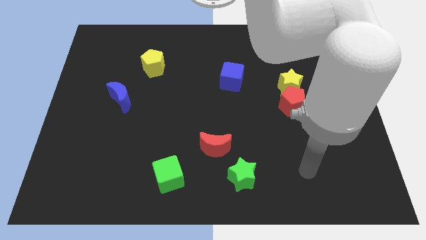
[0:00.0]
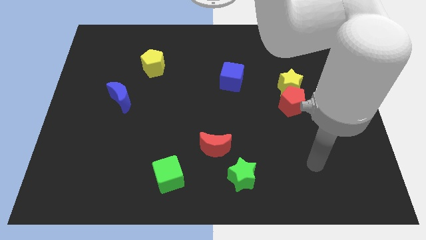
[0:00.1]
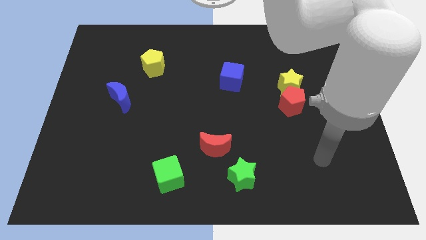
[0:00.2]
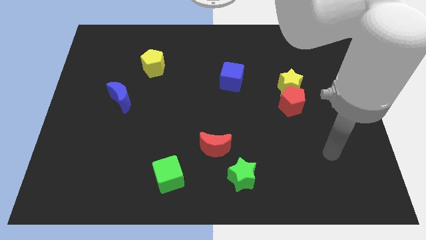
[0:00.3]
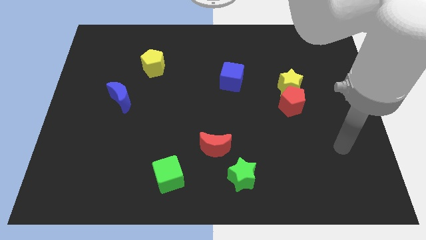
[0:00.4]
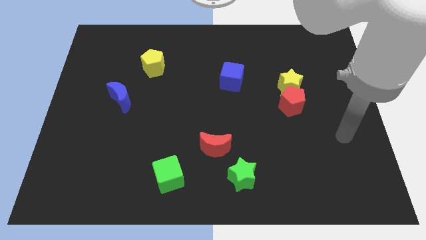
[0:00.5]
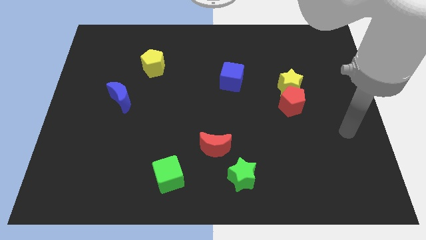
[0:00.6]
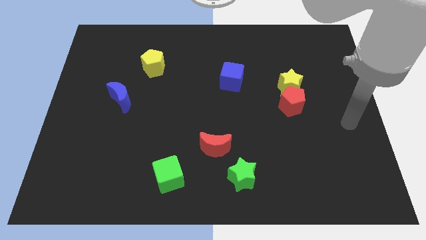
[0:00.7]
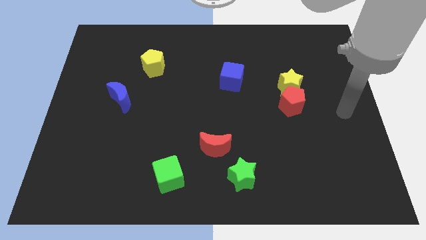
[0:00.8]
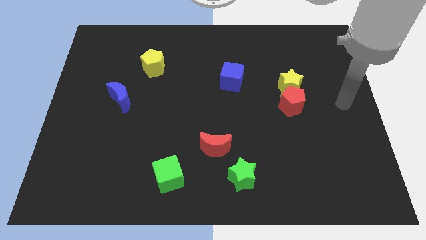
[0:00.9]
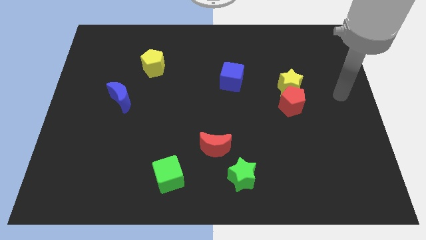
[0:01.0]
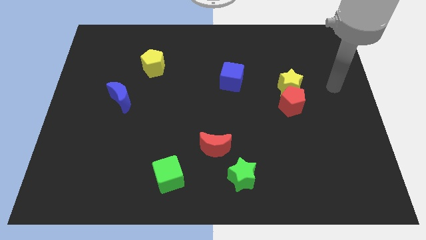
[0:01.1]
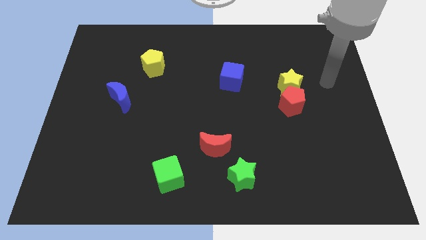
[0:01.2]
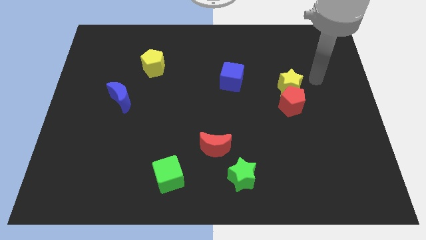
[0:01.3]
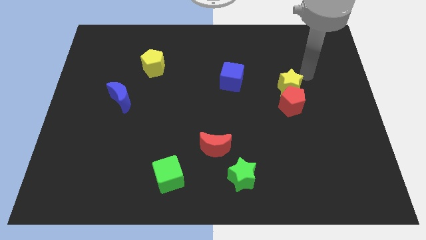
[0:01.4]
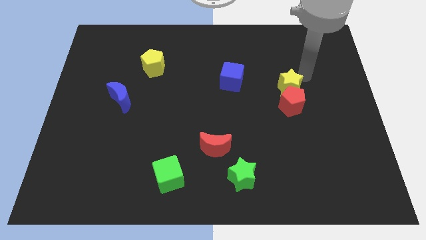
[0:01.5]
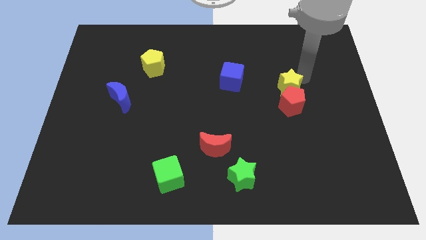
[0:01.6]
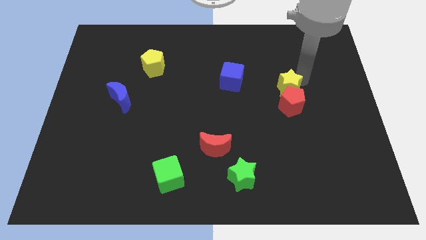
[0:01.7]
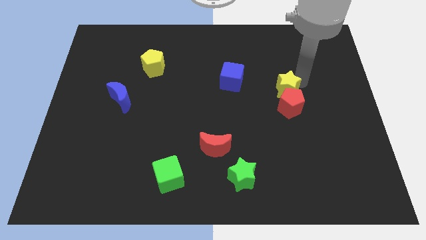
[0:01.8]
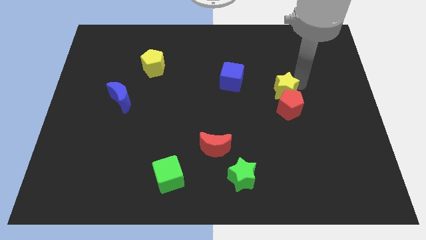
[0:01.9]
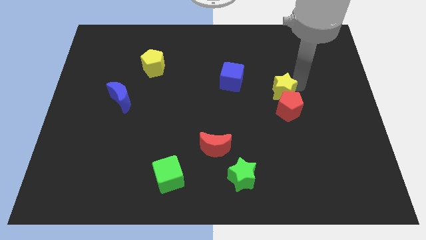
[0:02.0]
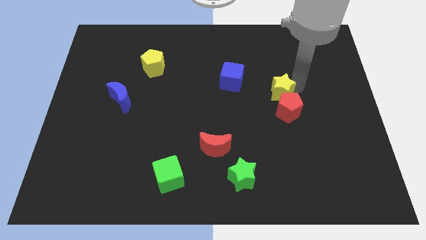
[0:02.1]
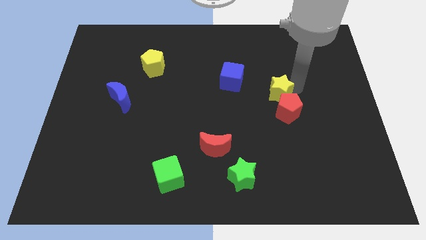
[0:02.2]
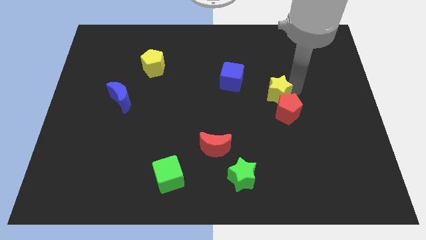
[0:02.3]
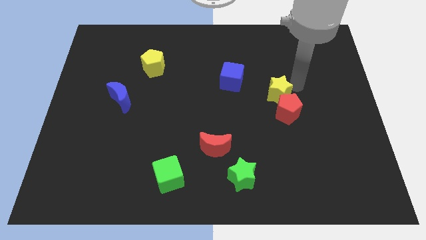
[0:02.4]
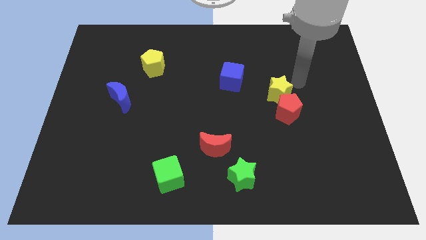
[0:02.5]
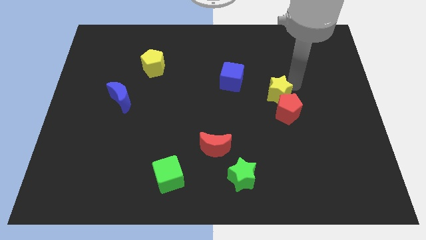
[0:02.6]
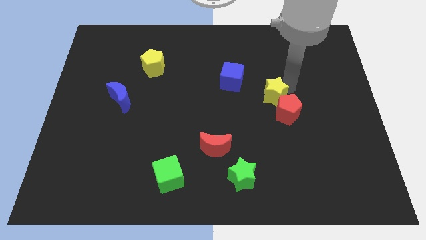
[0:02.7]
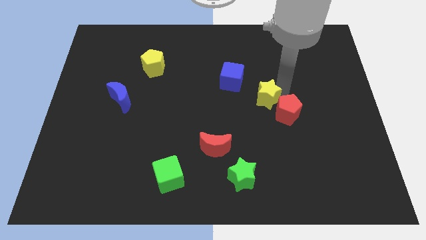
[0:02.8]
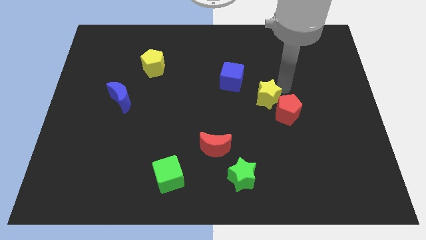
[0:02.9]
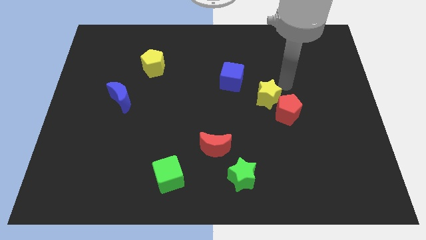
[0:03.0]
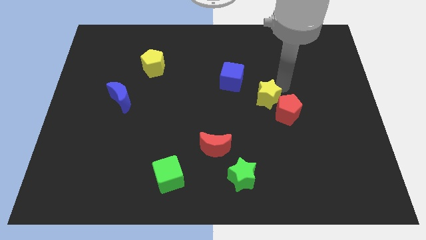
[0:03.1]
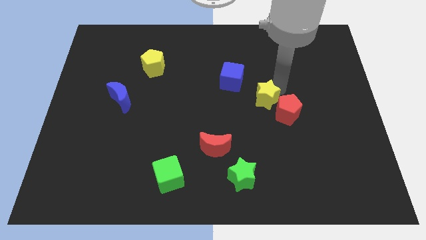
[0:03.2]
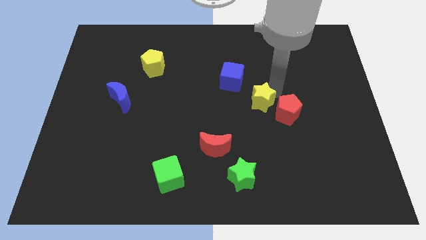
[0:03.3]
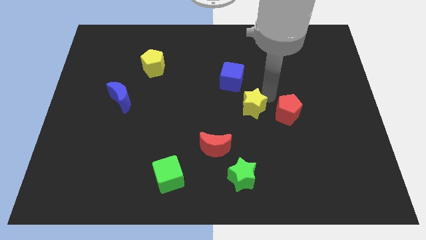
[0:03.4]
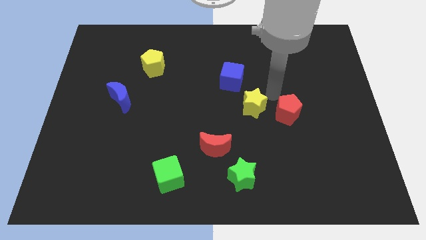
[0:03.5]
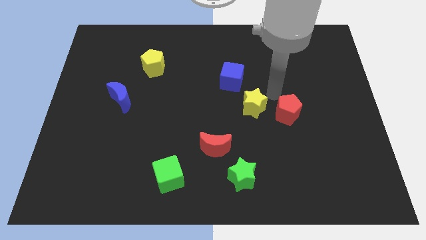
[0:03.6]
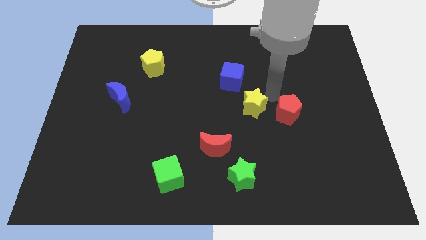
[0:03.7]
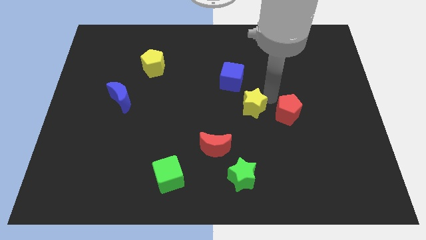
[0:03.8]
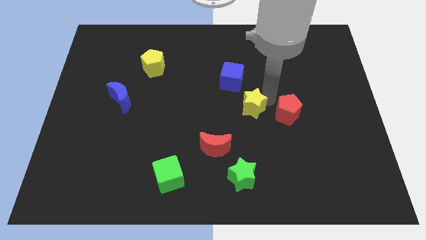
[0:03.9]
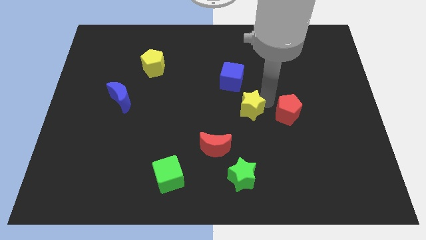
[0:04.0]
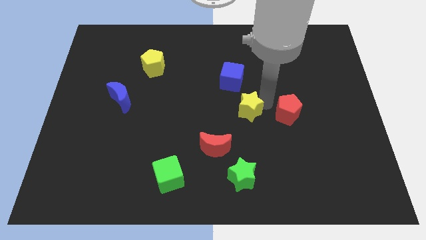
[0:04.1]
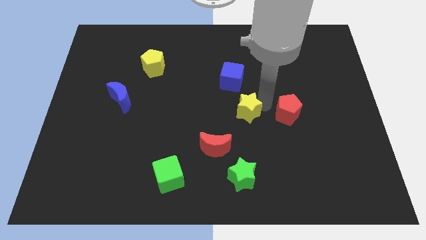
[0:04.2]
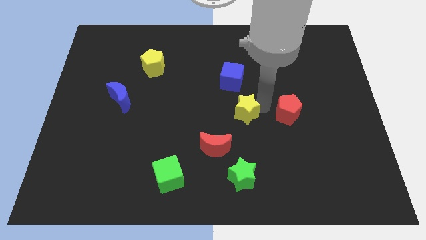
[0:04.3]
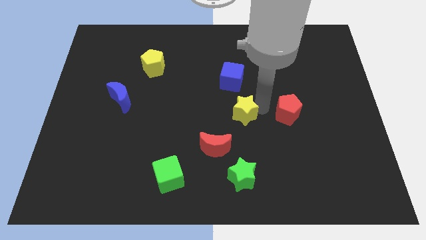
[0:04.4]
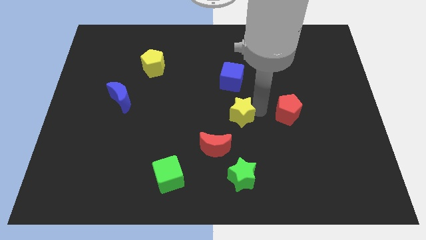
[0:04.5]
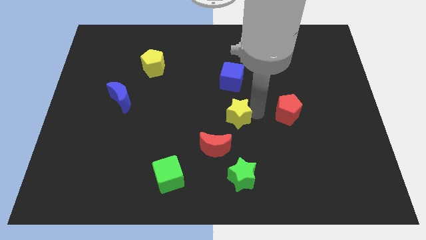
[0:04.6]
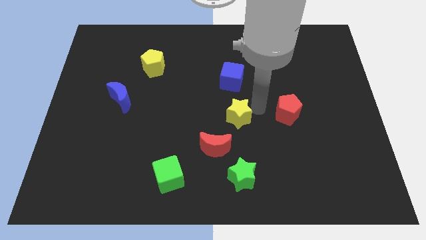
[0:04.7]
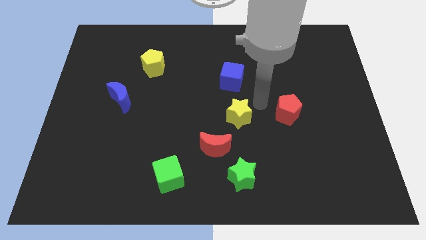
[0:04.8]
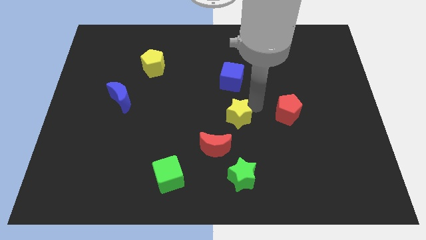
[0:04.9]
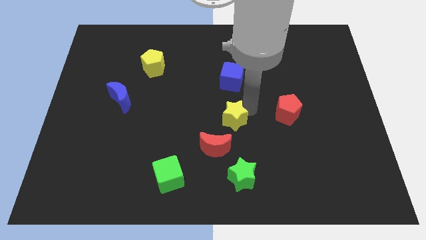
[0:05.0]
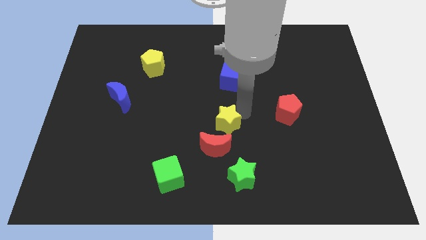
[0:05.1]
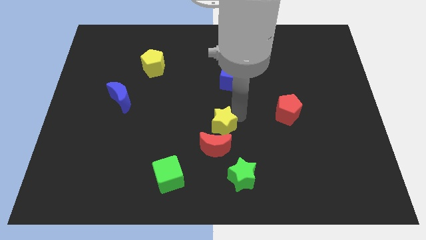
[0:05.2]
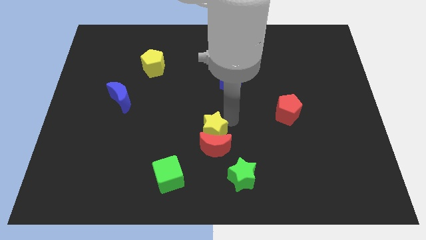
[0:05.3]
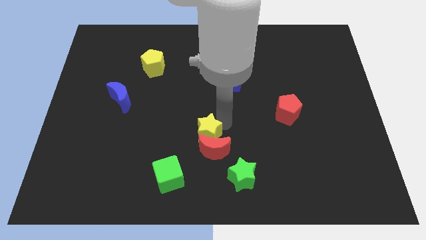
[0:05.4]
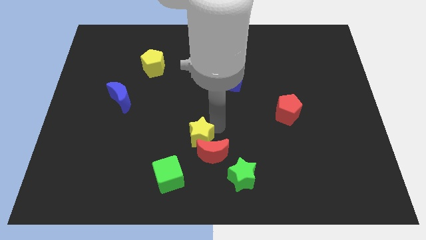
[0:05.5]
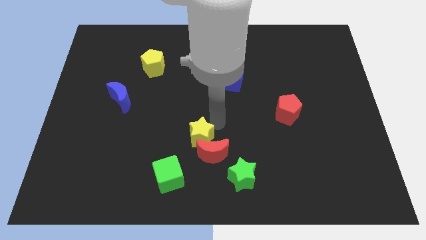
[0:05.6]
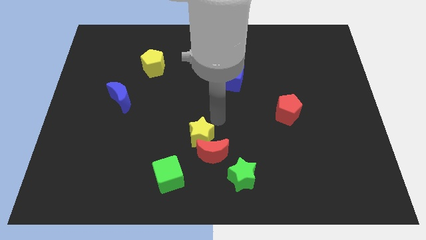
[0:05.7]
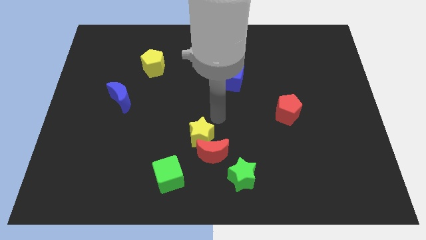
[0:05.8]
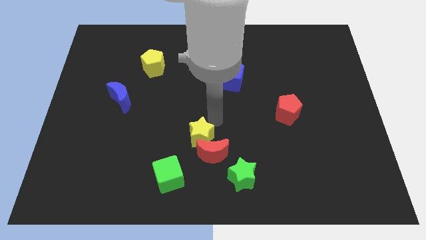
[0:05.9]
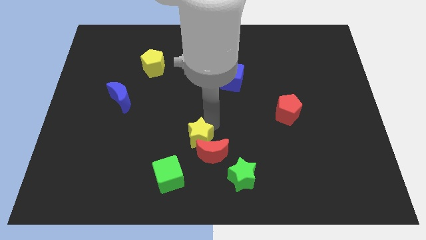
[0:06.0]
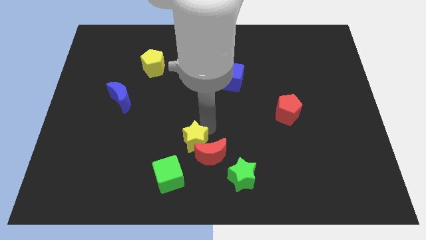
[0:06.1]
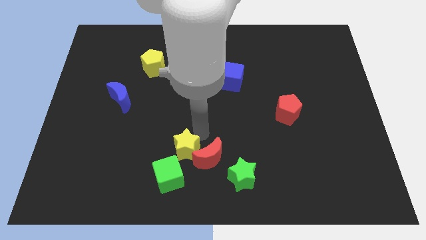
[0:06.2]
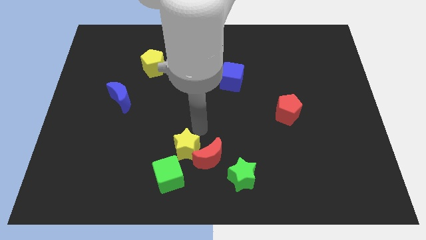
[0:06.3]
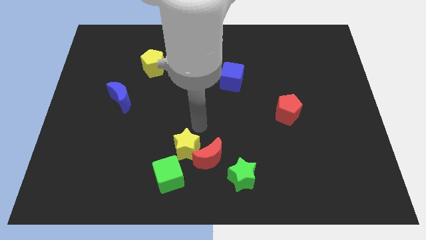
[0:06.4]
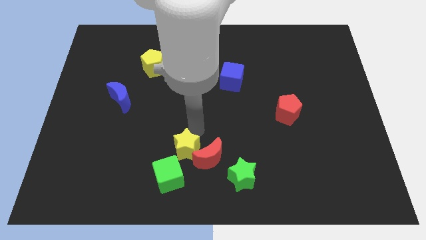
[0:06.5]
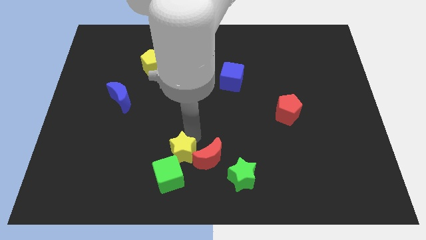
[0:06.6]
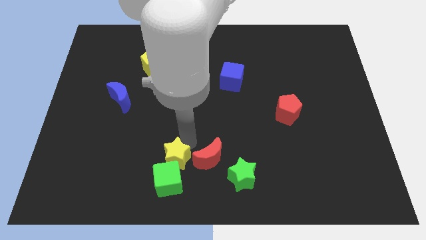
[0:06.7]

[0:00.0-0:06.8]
slide the yellow star to the green cube

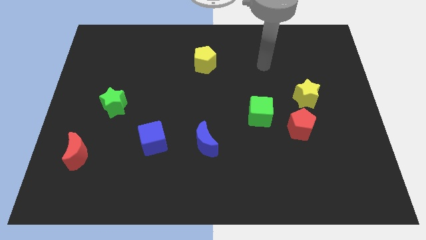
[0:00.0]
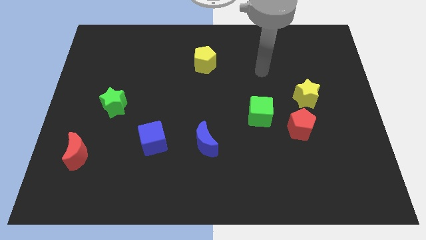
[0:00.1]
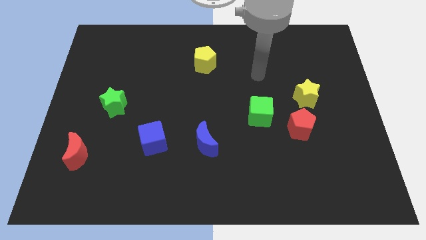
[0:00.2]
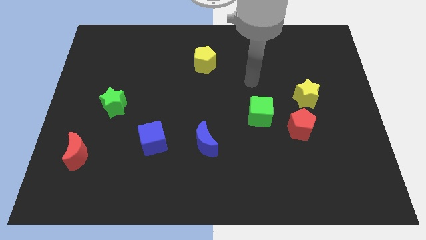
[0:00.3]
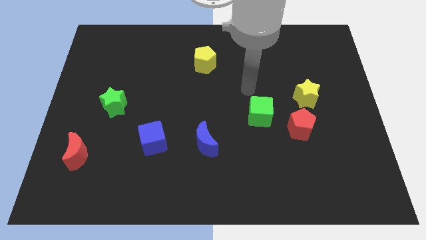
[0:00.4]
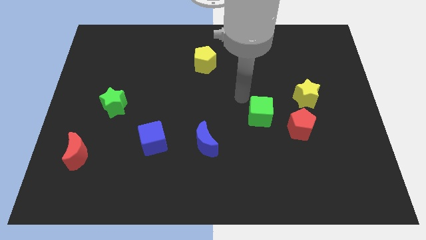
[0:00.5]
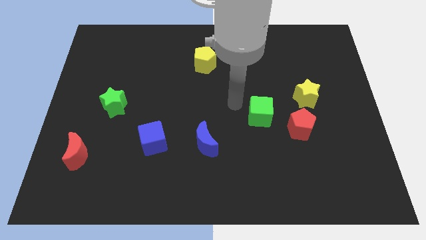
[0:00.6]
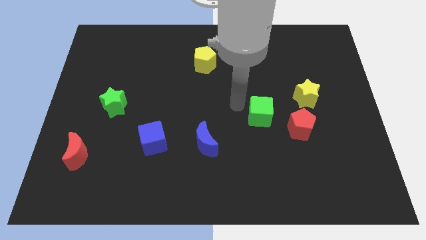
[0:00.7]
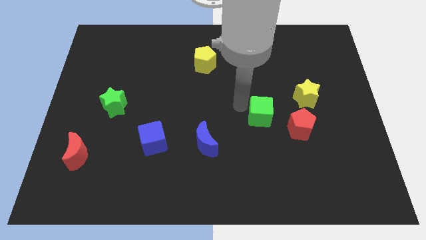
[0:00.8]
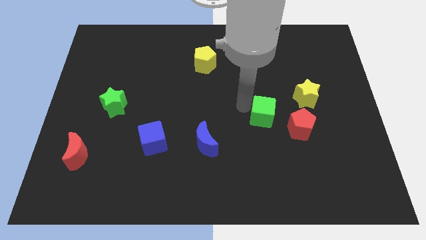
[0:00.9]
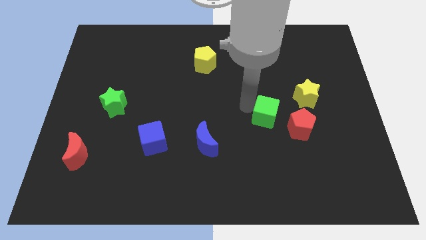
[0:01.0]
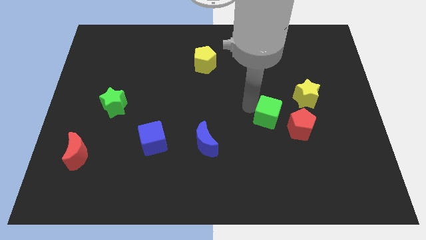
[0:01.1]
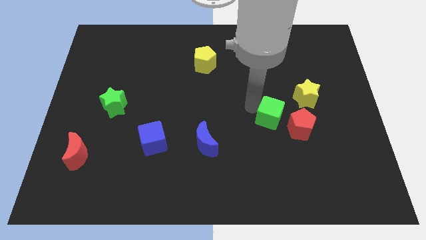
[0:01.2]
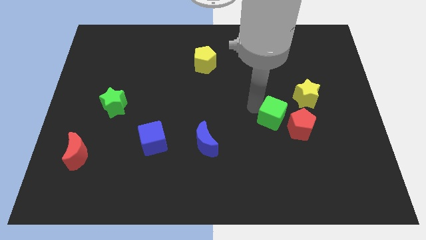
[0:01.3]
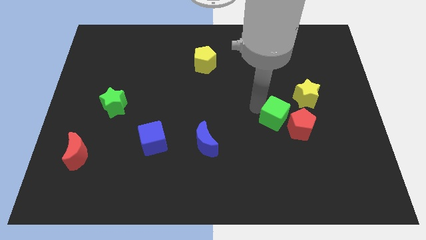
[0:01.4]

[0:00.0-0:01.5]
push the green cube next to the red pentagon
